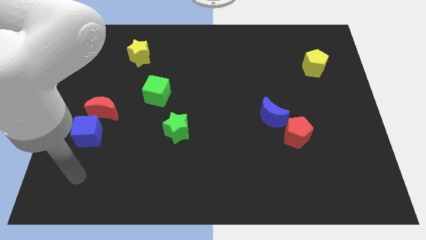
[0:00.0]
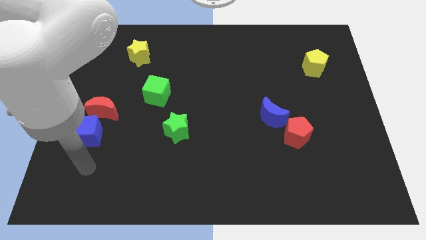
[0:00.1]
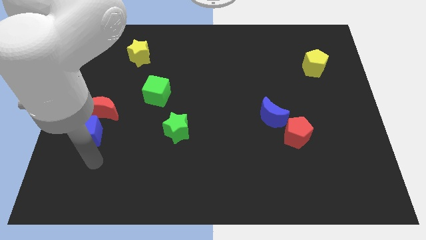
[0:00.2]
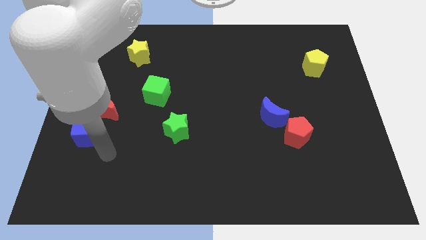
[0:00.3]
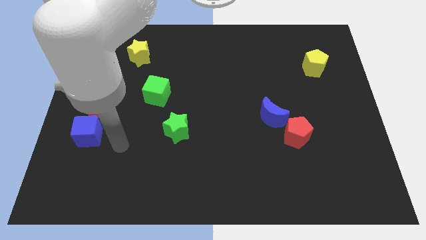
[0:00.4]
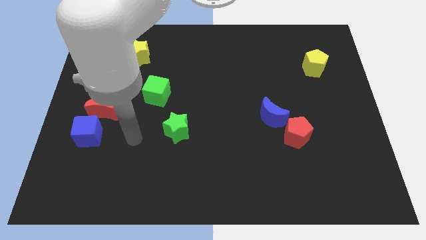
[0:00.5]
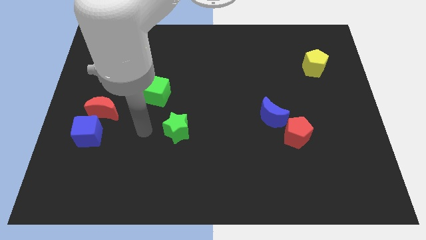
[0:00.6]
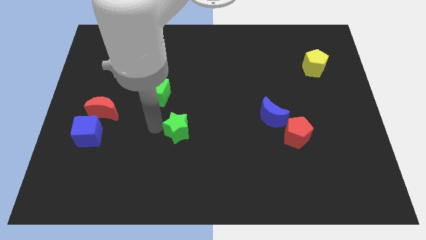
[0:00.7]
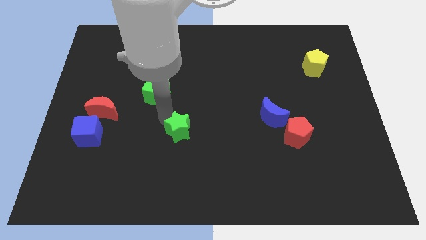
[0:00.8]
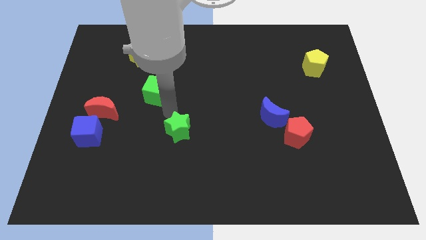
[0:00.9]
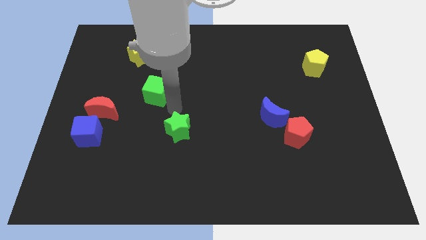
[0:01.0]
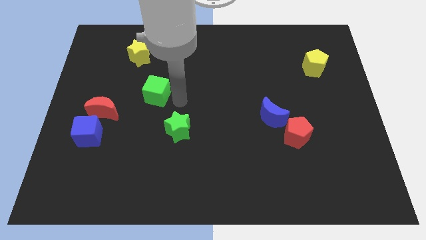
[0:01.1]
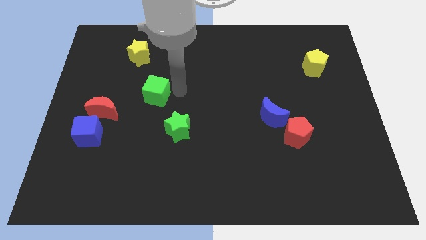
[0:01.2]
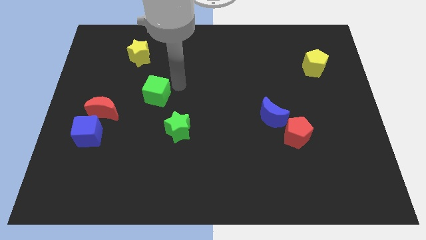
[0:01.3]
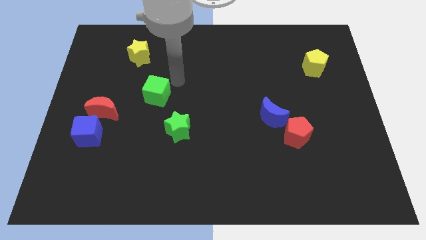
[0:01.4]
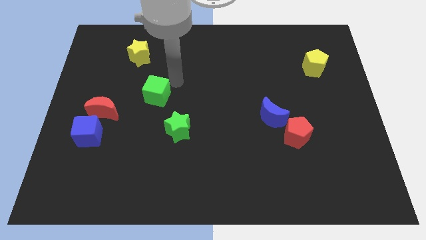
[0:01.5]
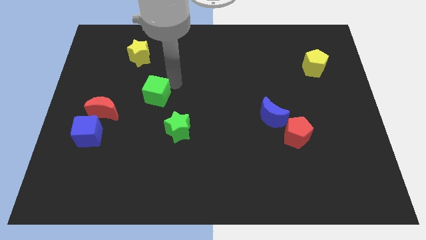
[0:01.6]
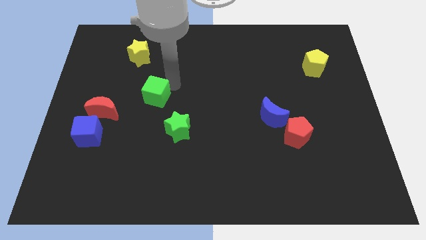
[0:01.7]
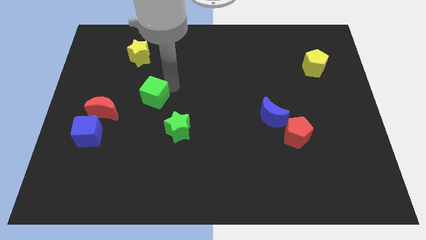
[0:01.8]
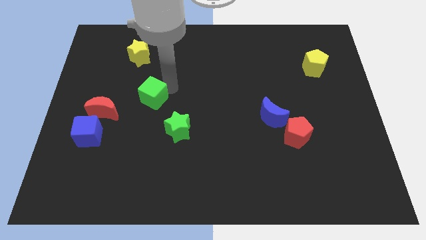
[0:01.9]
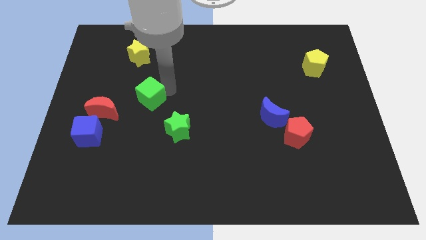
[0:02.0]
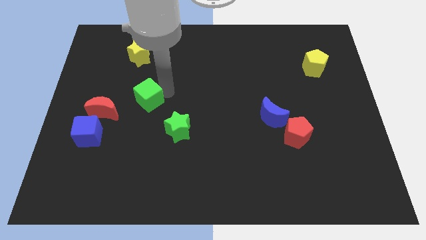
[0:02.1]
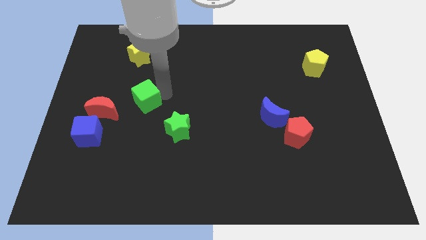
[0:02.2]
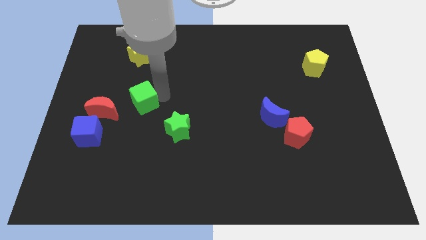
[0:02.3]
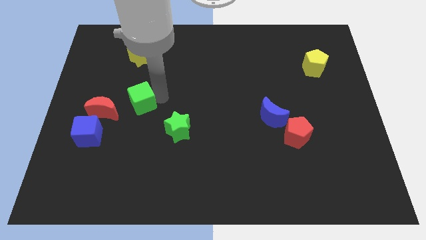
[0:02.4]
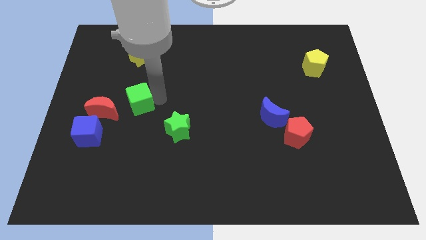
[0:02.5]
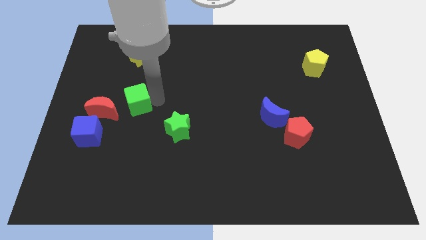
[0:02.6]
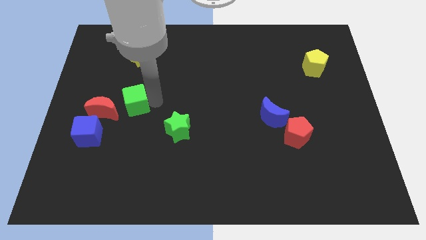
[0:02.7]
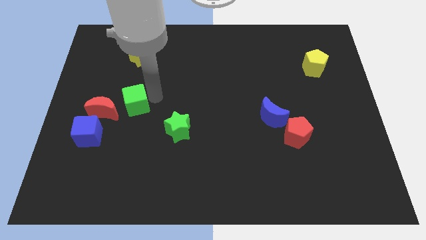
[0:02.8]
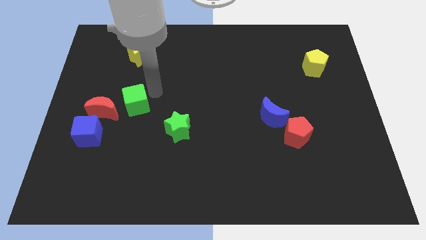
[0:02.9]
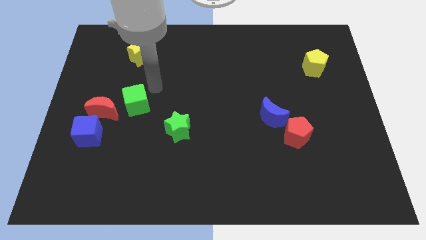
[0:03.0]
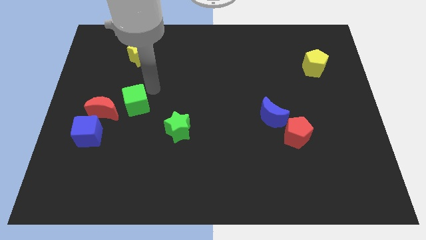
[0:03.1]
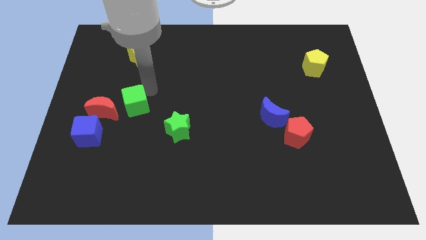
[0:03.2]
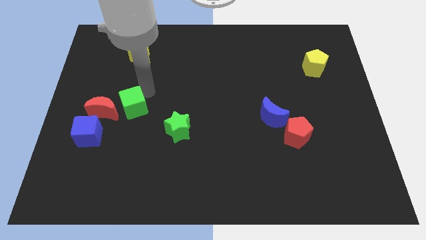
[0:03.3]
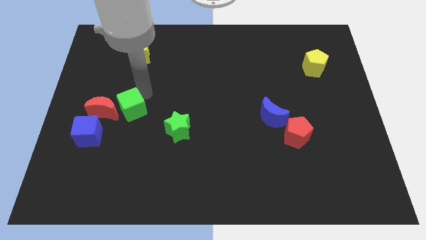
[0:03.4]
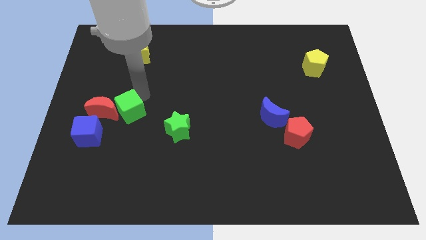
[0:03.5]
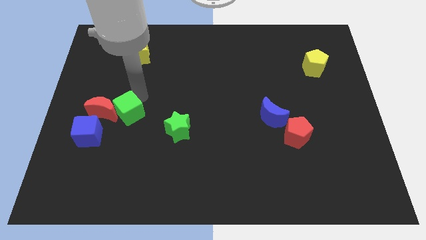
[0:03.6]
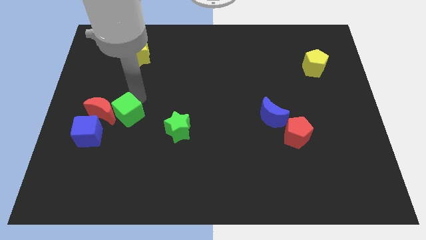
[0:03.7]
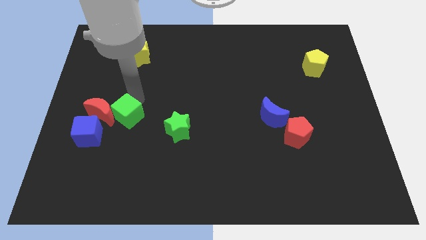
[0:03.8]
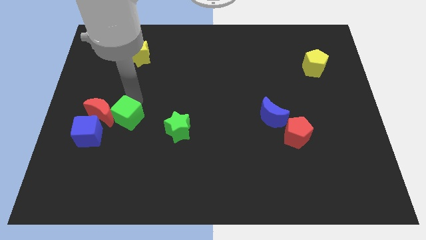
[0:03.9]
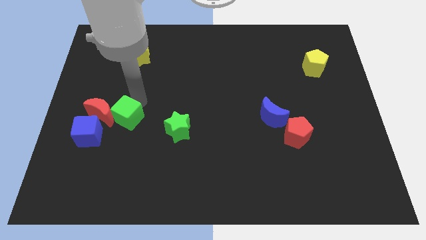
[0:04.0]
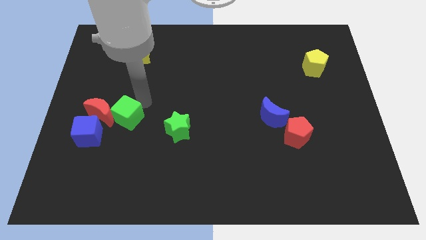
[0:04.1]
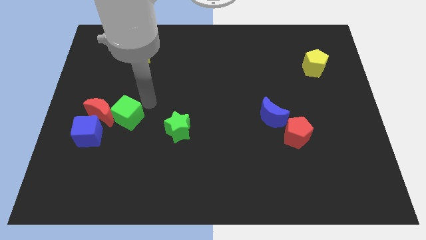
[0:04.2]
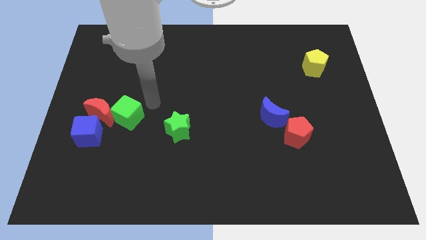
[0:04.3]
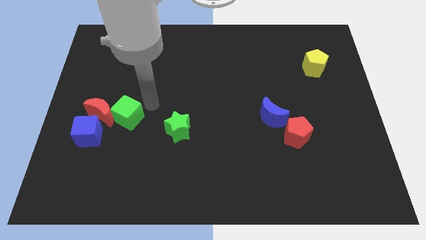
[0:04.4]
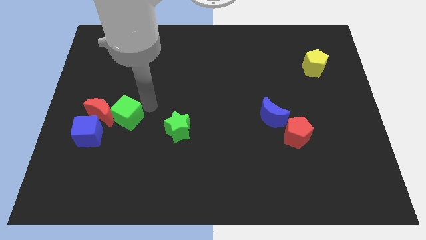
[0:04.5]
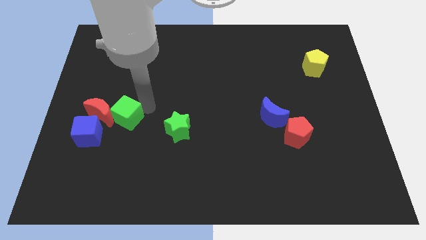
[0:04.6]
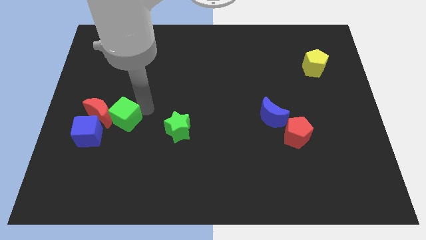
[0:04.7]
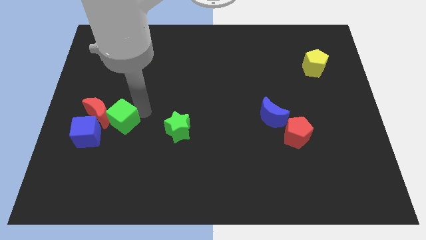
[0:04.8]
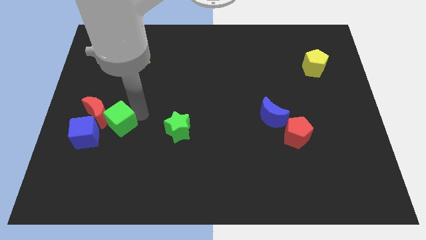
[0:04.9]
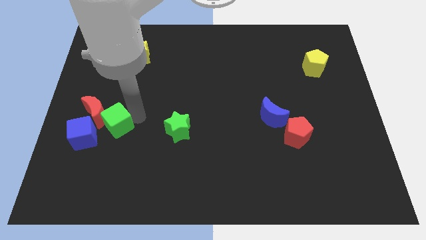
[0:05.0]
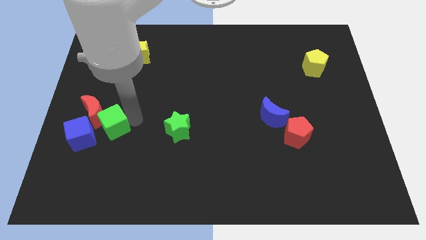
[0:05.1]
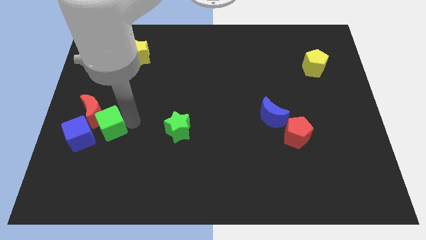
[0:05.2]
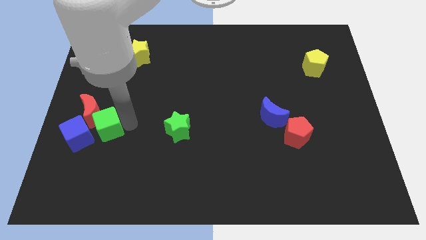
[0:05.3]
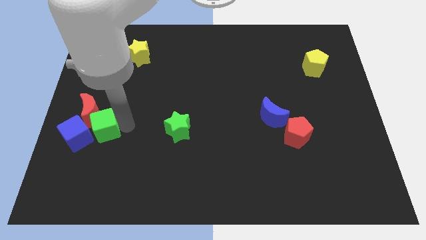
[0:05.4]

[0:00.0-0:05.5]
push the green cube next to the blue cube

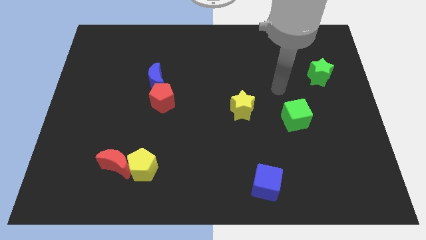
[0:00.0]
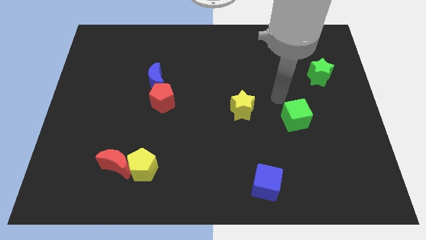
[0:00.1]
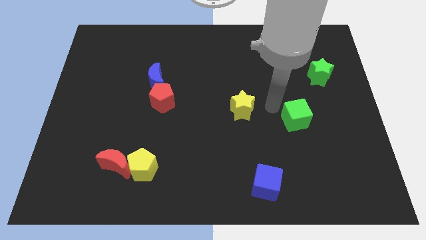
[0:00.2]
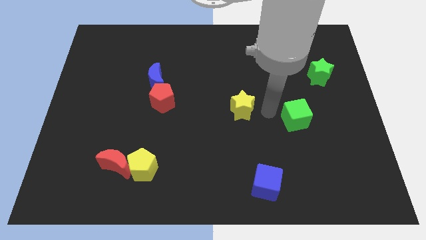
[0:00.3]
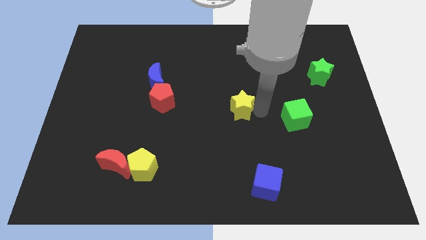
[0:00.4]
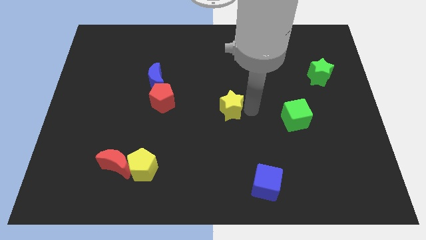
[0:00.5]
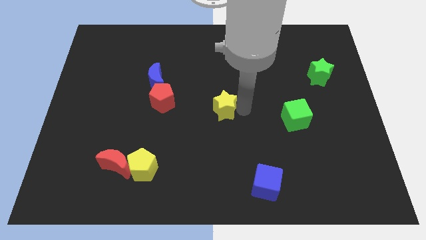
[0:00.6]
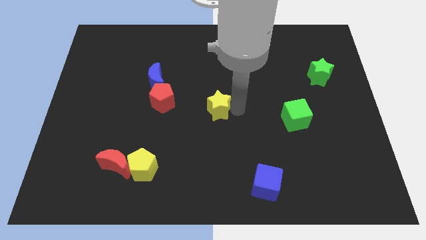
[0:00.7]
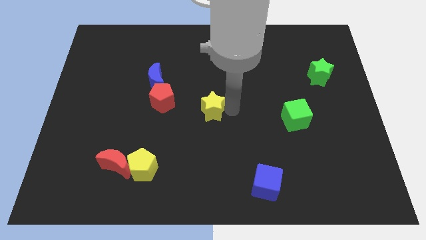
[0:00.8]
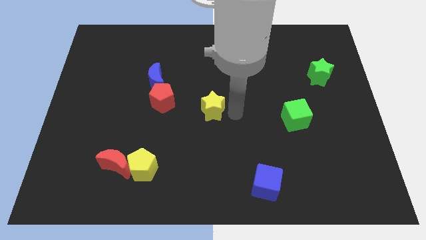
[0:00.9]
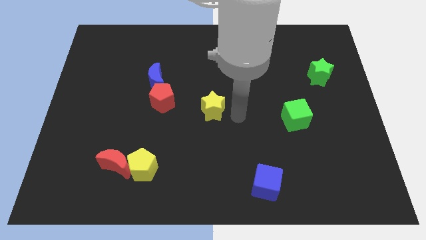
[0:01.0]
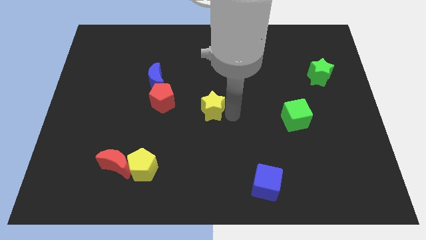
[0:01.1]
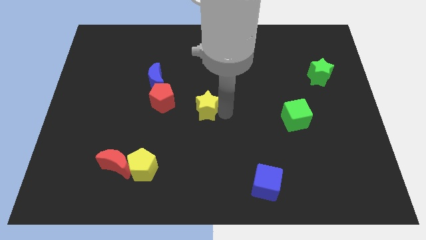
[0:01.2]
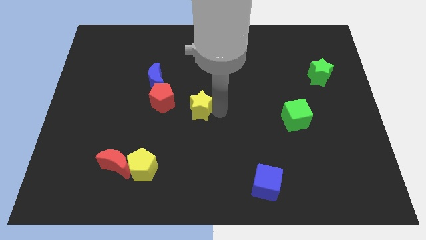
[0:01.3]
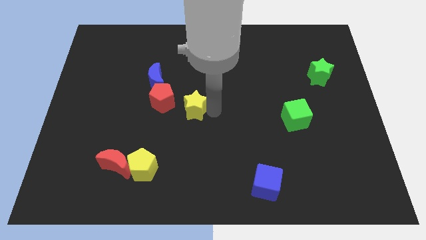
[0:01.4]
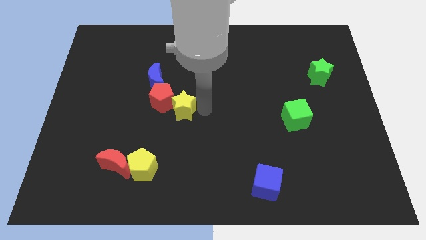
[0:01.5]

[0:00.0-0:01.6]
move the yellow star close to the red pentagon
